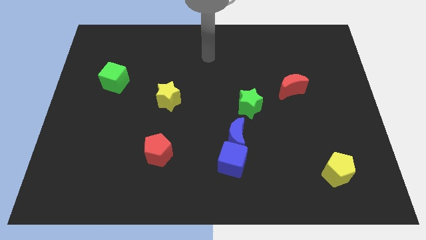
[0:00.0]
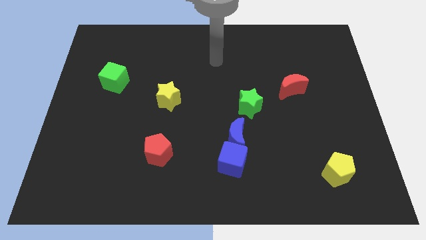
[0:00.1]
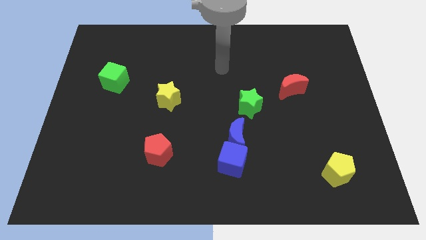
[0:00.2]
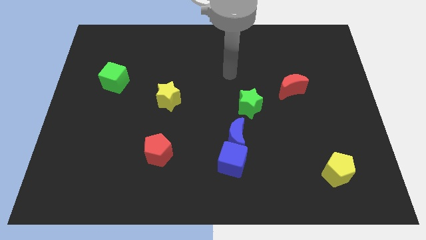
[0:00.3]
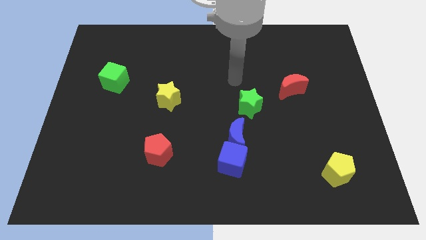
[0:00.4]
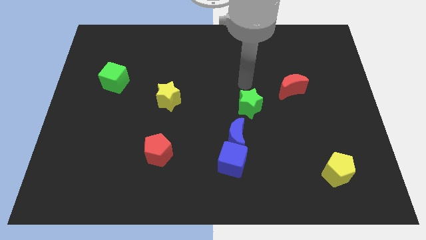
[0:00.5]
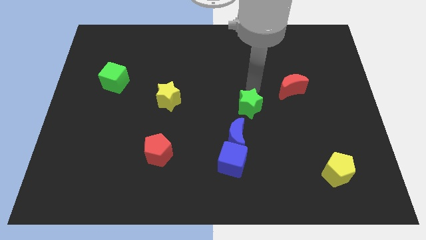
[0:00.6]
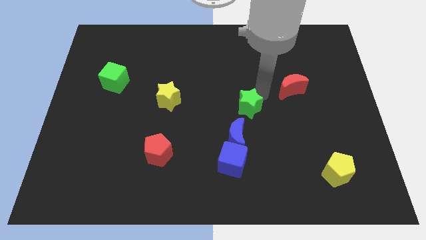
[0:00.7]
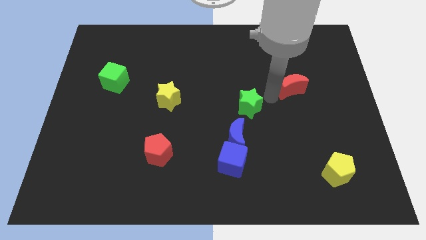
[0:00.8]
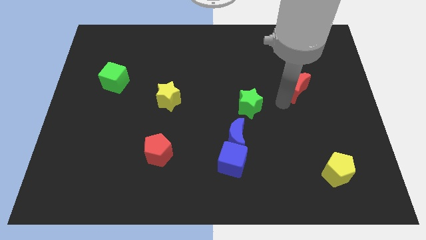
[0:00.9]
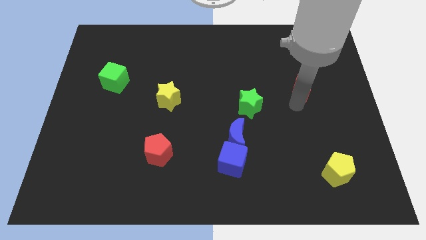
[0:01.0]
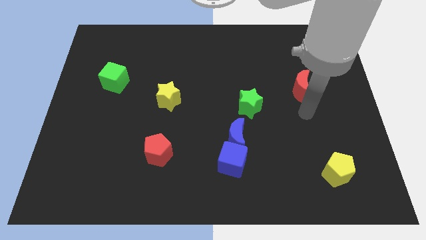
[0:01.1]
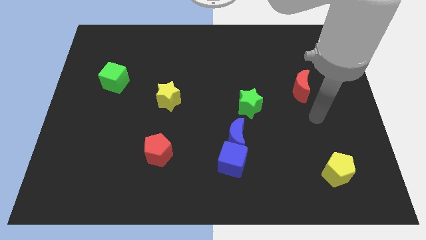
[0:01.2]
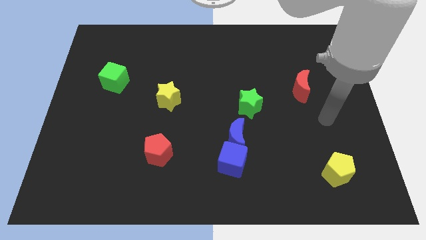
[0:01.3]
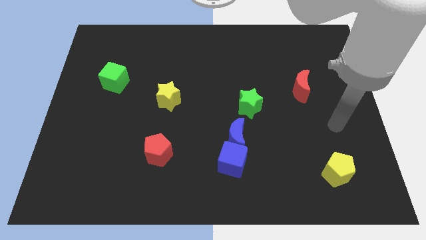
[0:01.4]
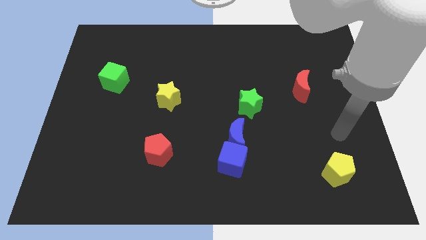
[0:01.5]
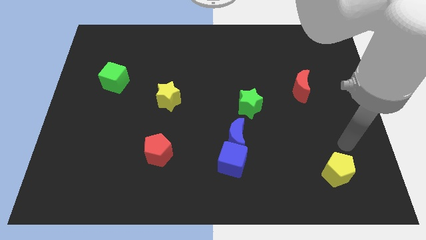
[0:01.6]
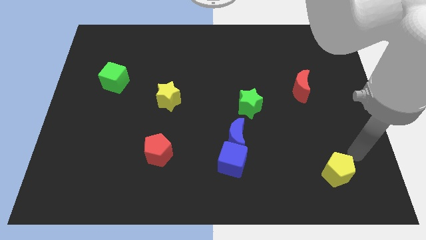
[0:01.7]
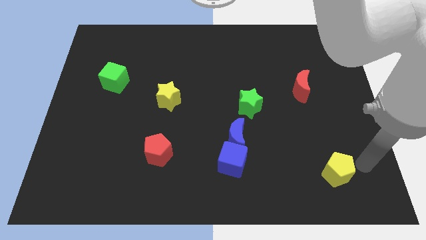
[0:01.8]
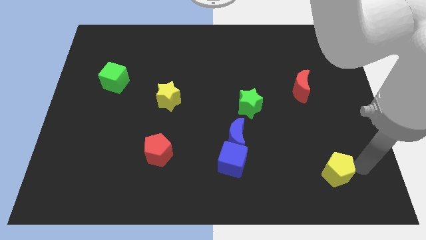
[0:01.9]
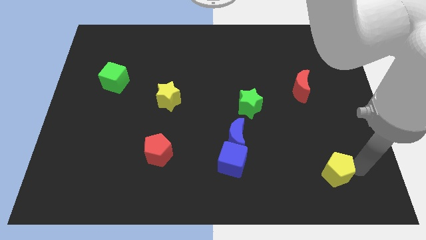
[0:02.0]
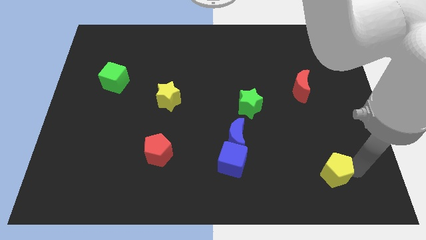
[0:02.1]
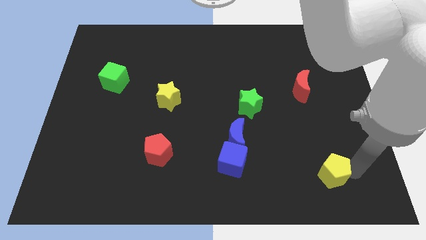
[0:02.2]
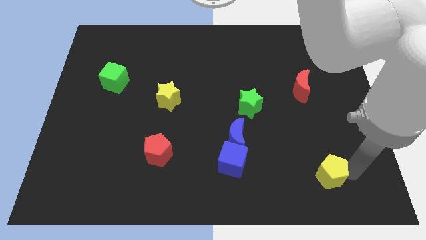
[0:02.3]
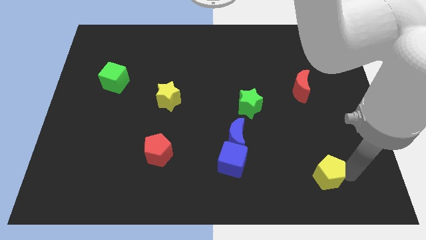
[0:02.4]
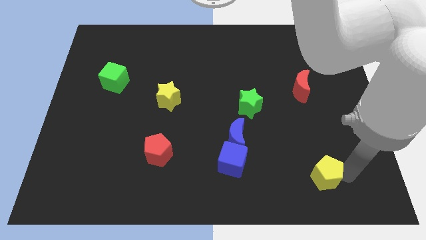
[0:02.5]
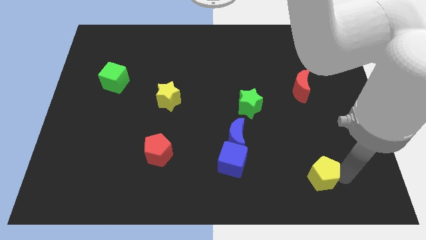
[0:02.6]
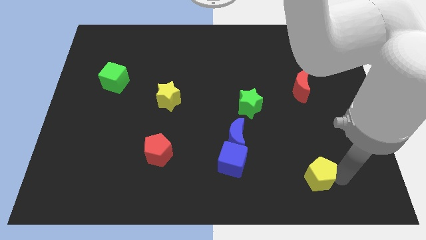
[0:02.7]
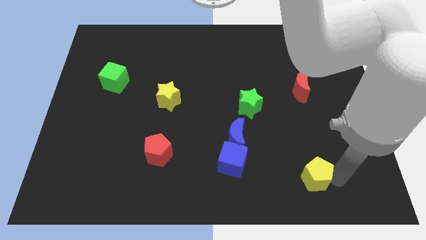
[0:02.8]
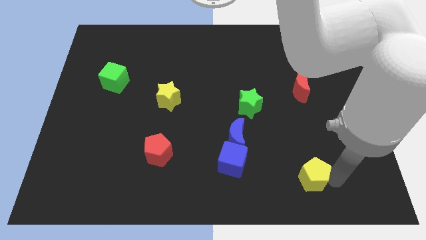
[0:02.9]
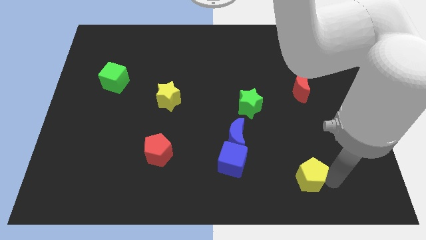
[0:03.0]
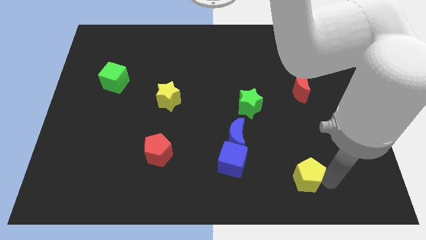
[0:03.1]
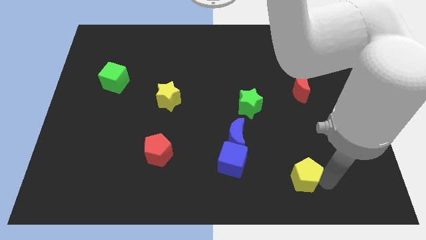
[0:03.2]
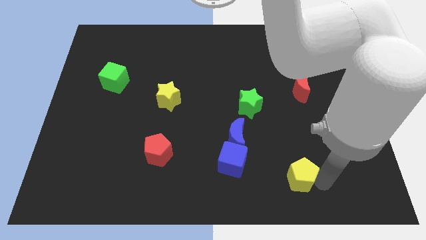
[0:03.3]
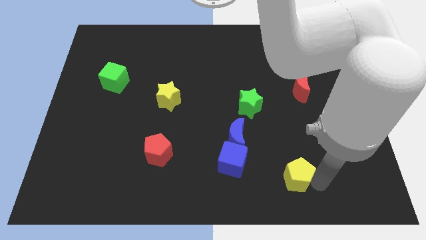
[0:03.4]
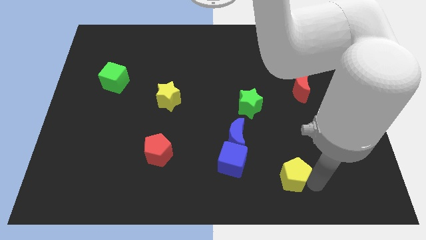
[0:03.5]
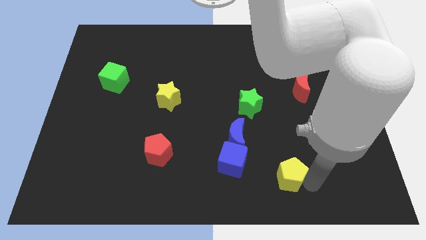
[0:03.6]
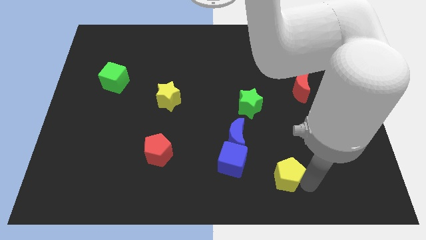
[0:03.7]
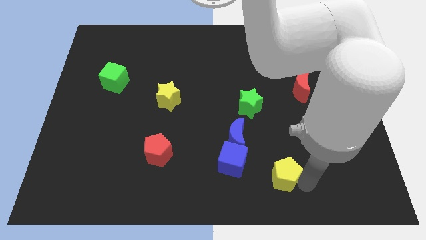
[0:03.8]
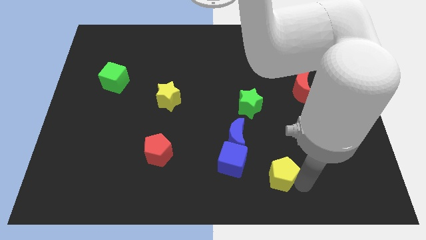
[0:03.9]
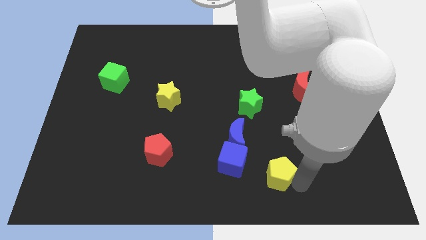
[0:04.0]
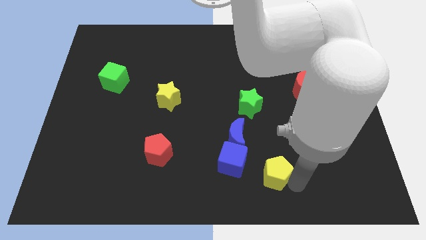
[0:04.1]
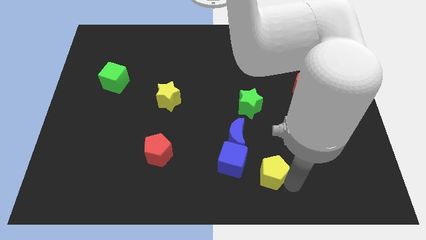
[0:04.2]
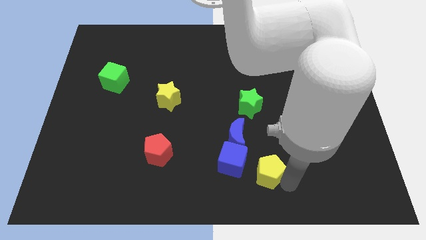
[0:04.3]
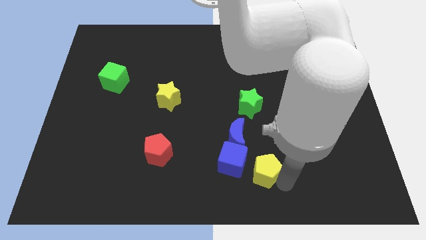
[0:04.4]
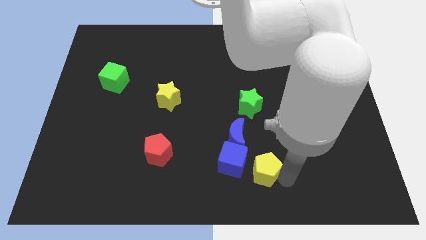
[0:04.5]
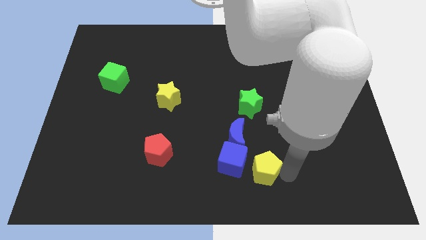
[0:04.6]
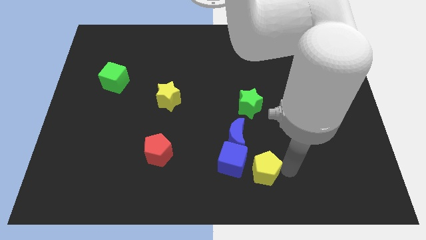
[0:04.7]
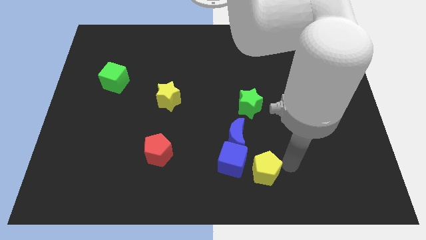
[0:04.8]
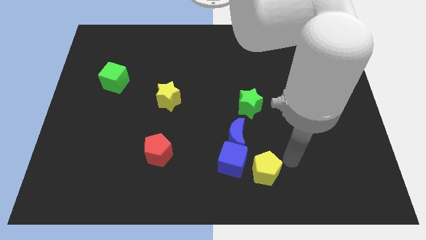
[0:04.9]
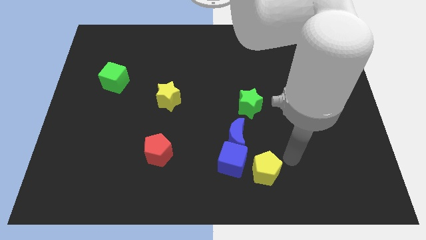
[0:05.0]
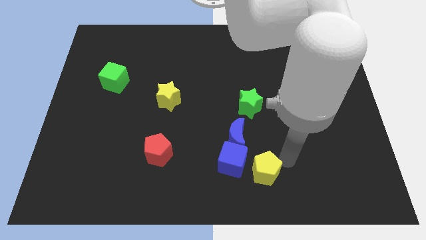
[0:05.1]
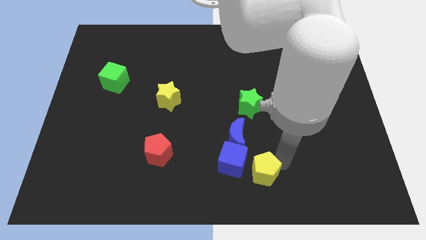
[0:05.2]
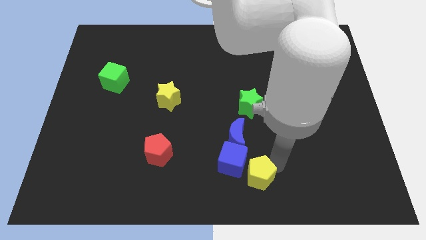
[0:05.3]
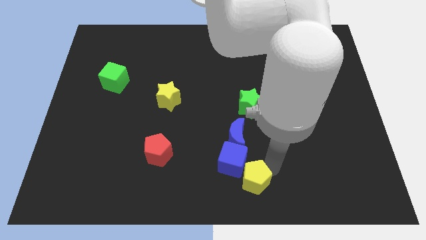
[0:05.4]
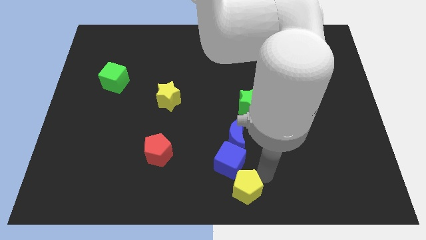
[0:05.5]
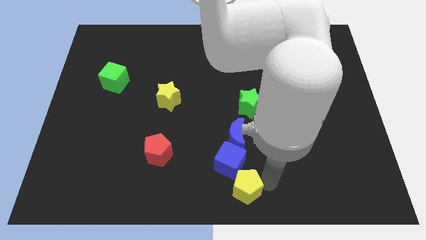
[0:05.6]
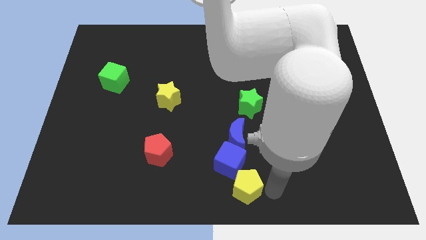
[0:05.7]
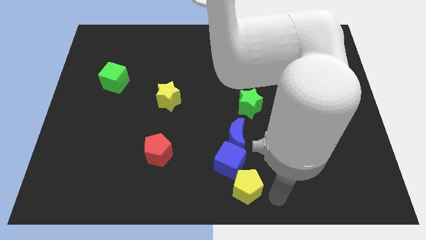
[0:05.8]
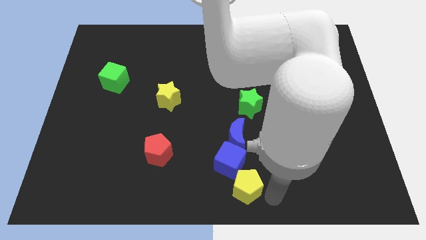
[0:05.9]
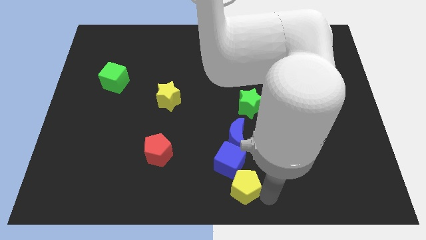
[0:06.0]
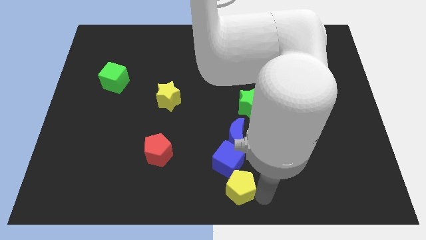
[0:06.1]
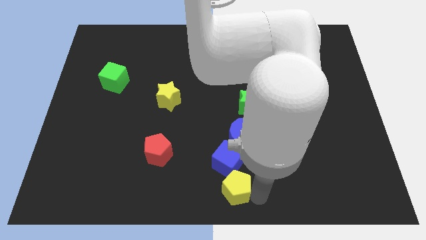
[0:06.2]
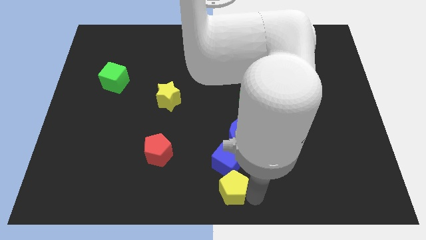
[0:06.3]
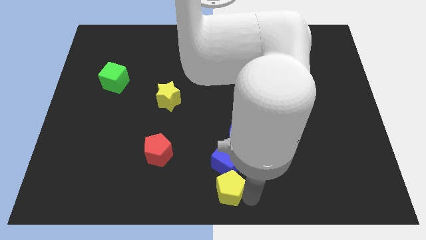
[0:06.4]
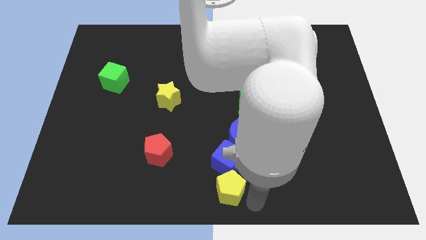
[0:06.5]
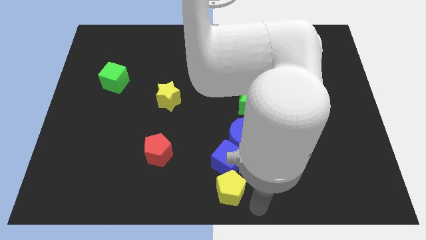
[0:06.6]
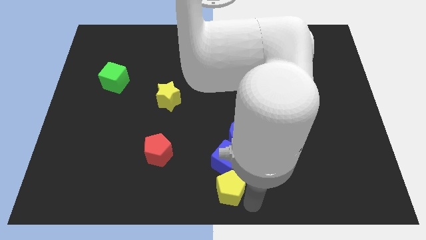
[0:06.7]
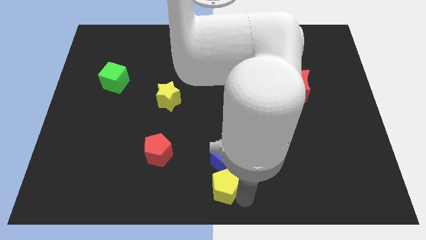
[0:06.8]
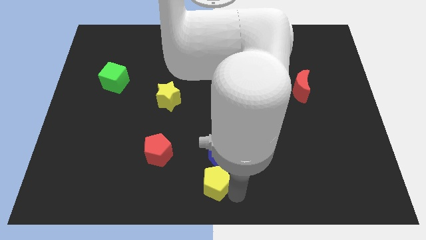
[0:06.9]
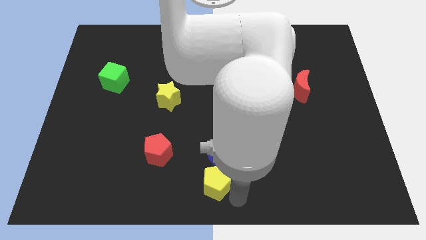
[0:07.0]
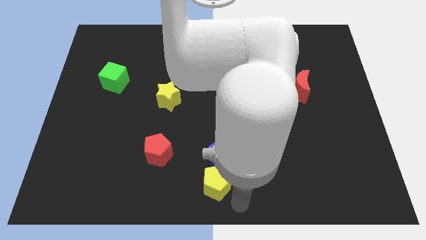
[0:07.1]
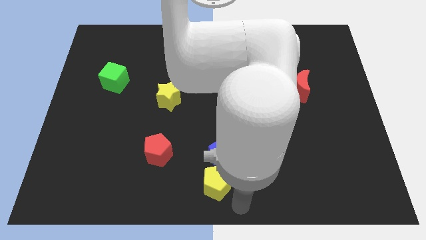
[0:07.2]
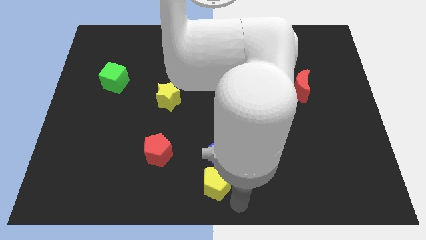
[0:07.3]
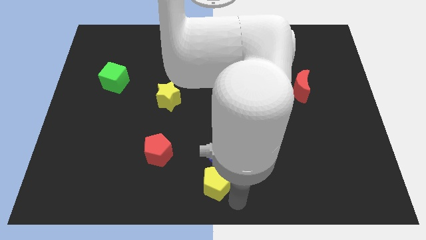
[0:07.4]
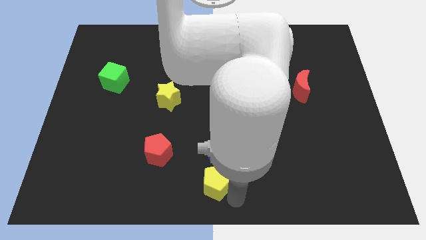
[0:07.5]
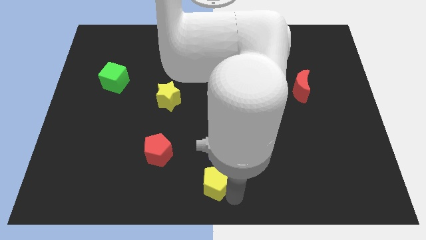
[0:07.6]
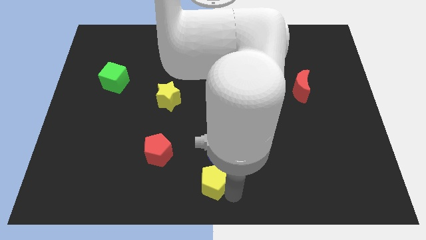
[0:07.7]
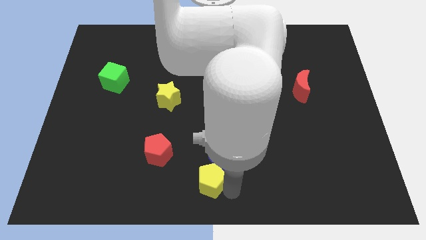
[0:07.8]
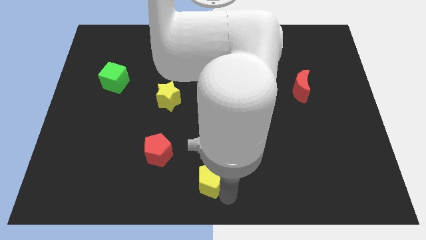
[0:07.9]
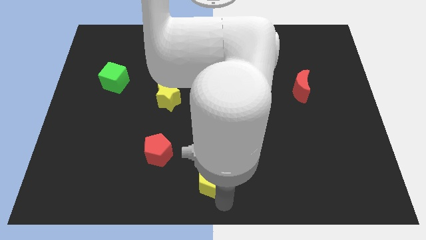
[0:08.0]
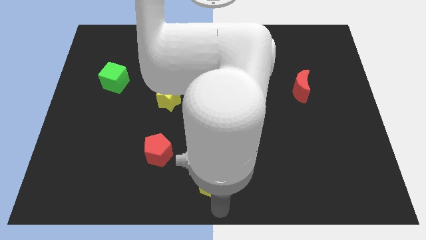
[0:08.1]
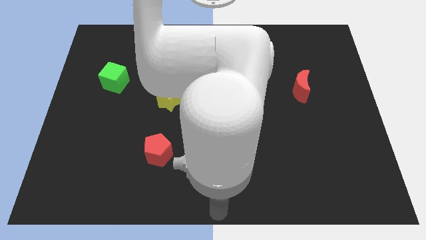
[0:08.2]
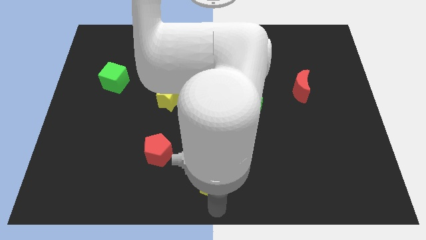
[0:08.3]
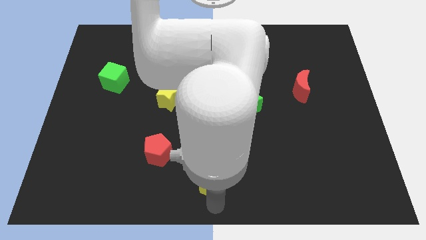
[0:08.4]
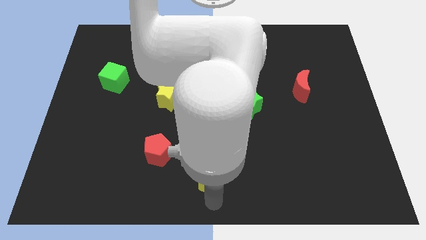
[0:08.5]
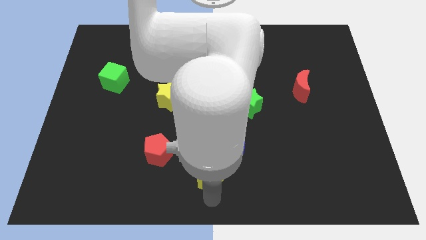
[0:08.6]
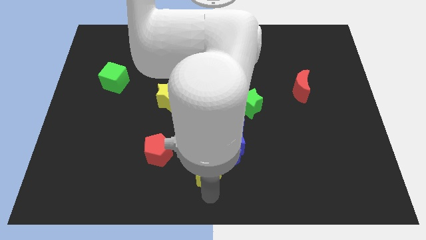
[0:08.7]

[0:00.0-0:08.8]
move the yellow pentagon just right of the red pentagon
